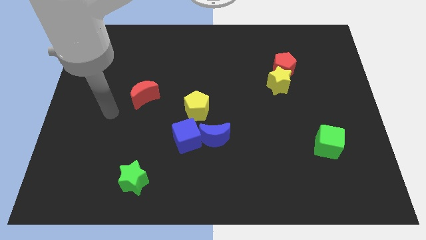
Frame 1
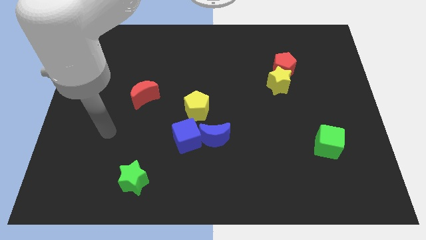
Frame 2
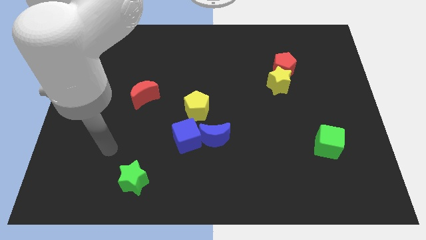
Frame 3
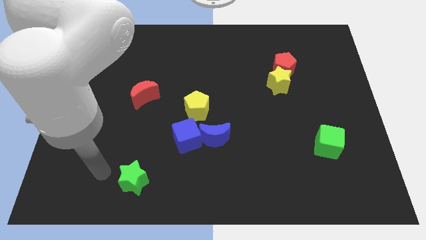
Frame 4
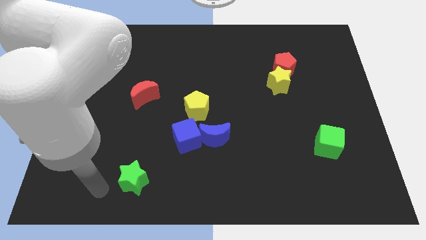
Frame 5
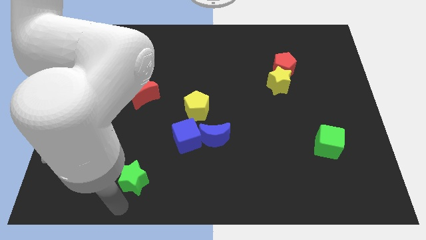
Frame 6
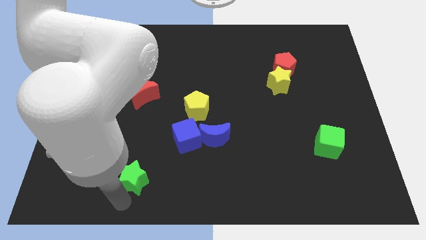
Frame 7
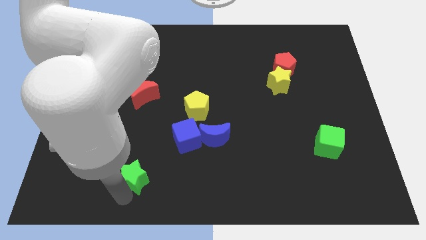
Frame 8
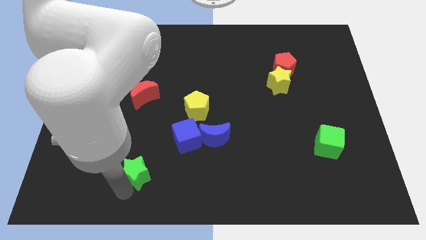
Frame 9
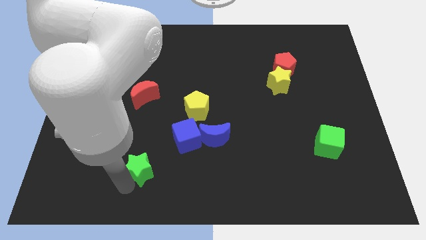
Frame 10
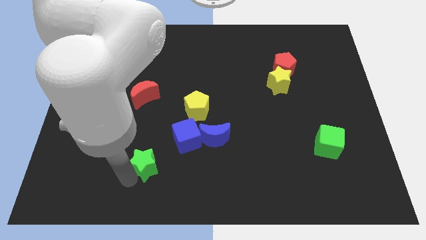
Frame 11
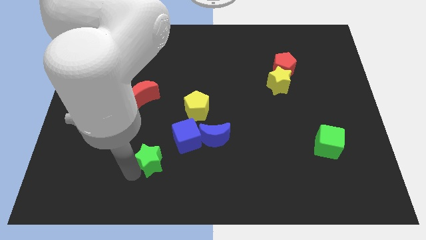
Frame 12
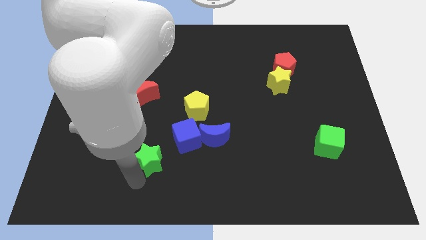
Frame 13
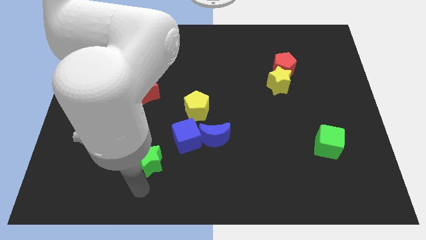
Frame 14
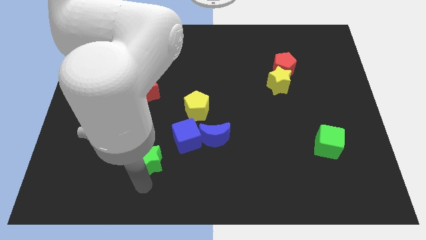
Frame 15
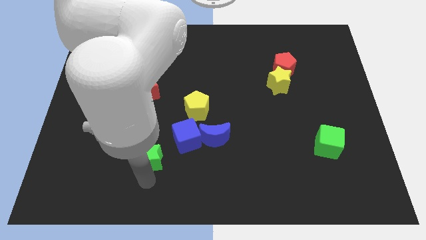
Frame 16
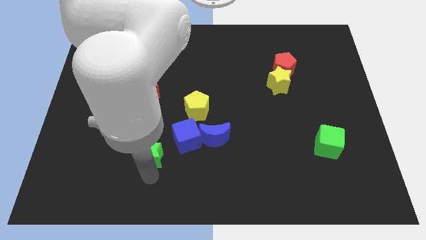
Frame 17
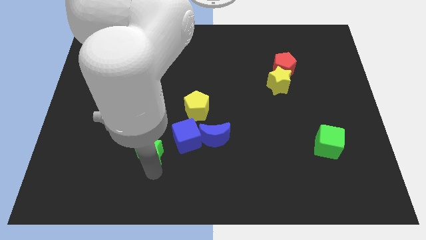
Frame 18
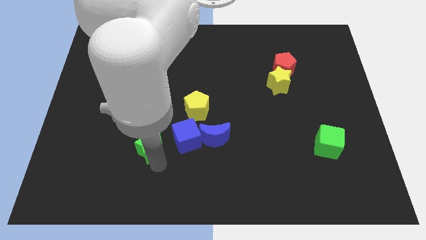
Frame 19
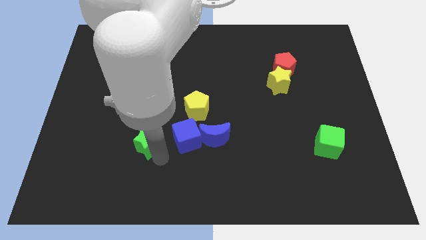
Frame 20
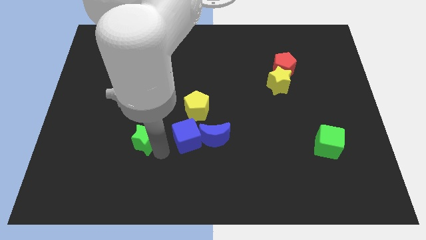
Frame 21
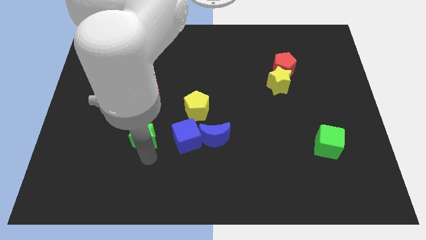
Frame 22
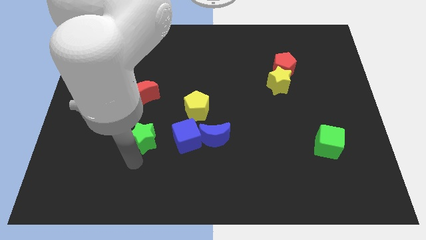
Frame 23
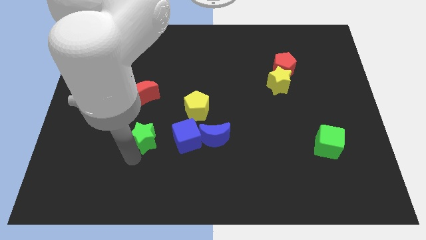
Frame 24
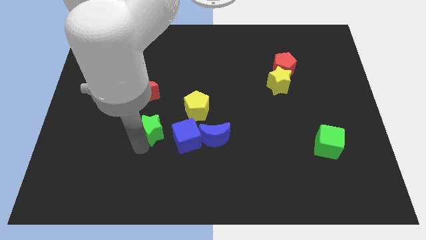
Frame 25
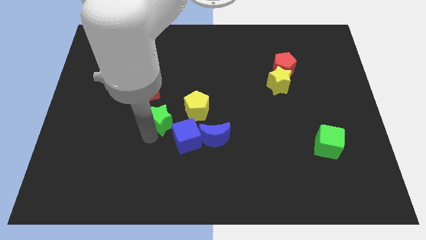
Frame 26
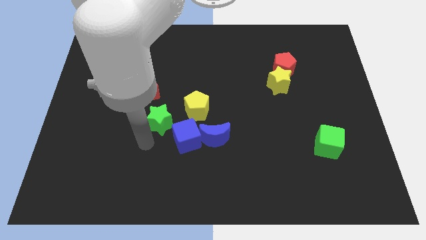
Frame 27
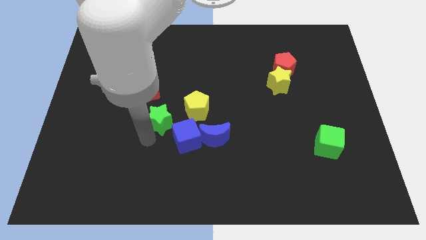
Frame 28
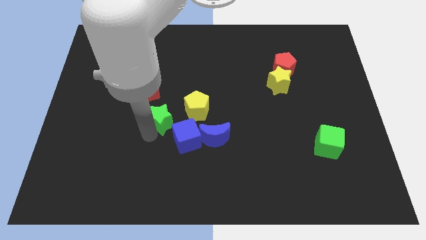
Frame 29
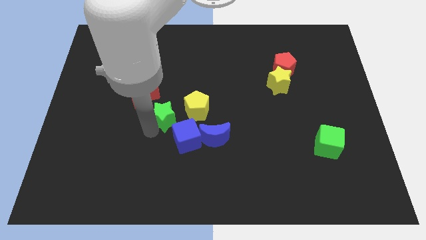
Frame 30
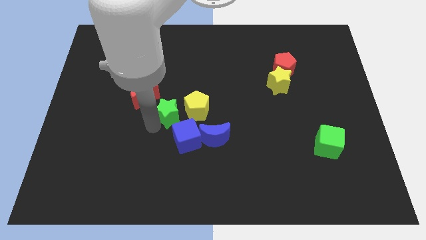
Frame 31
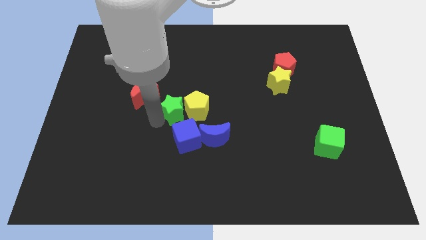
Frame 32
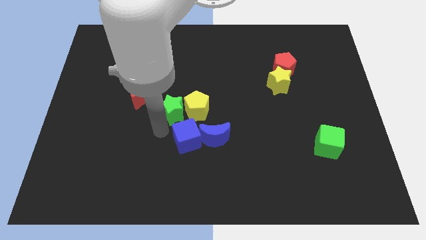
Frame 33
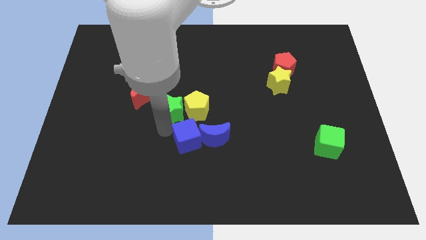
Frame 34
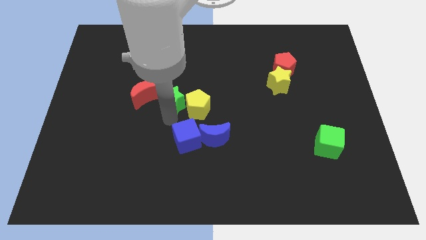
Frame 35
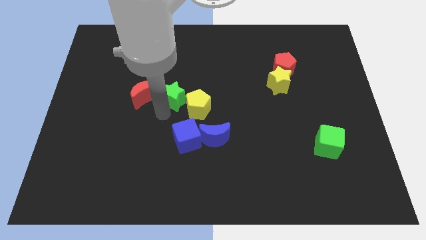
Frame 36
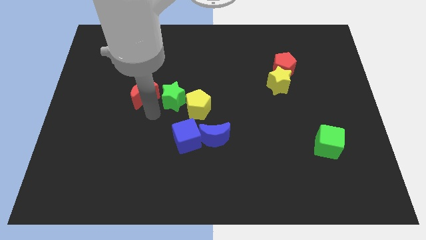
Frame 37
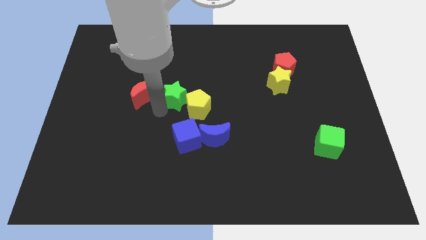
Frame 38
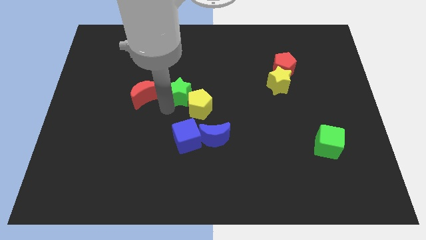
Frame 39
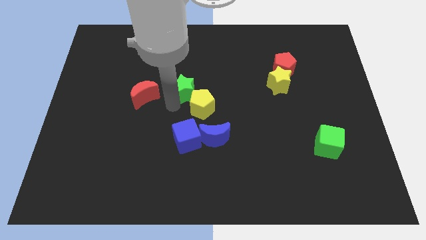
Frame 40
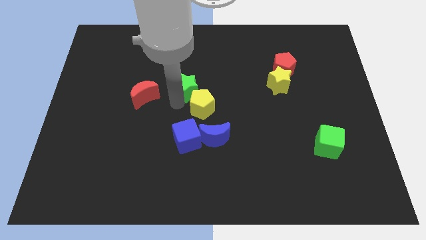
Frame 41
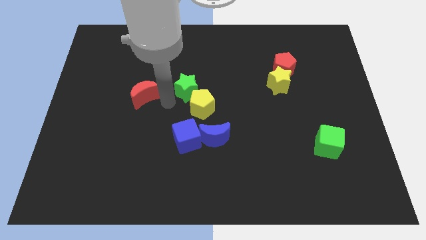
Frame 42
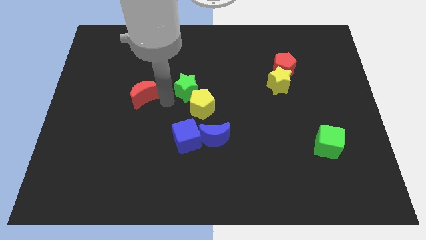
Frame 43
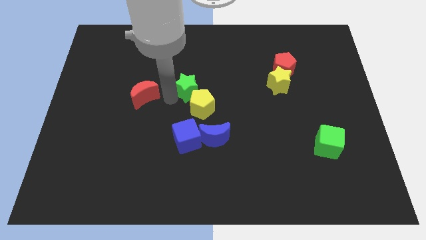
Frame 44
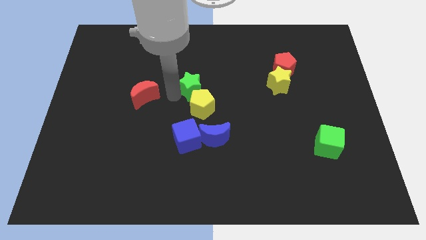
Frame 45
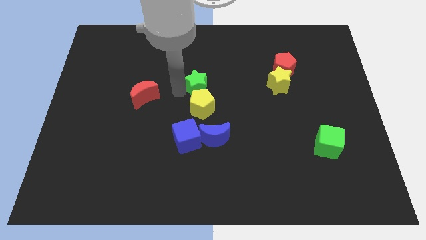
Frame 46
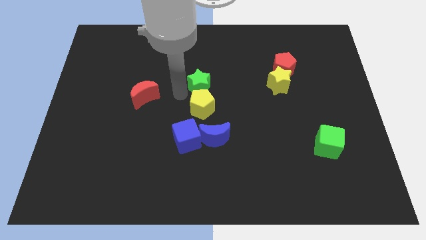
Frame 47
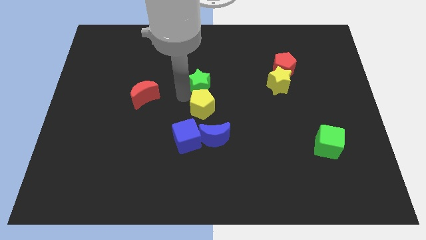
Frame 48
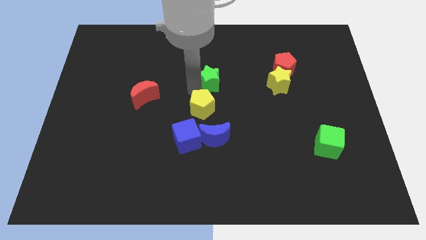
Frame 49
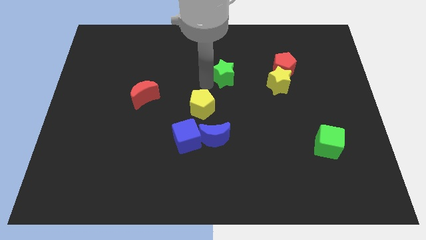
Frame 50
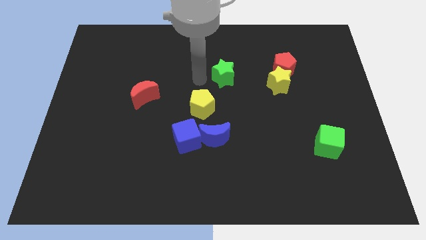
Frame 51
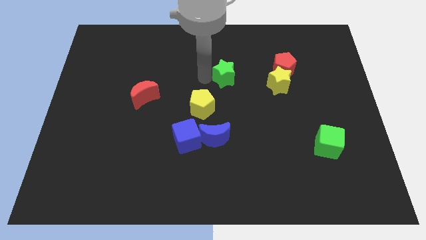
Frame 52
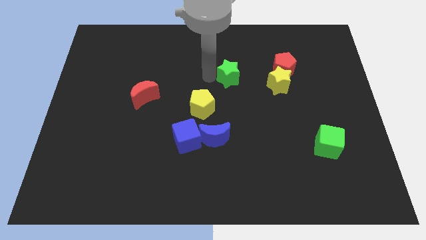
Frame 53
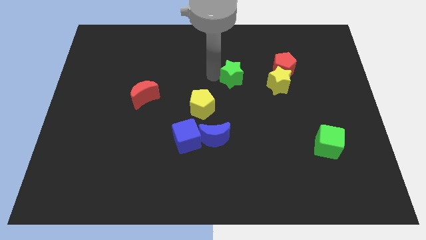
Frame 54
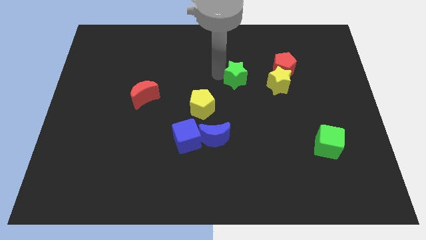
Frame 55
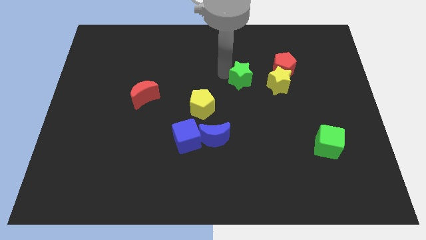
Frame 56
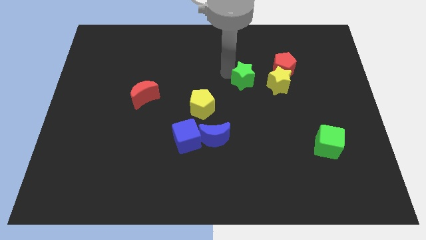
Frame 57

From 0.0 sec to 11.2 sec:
move the green star diagonally up and to the left of the yellow star

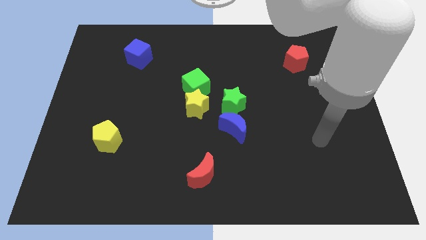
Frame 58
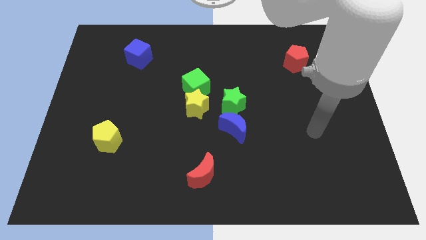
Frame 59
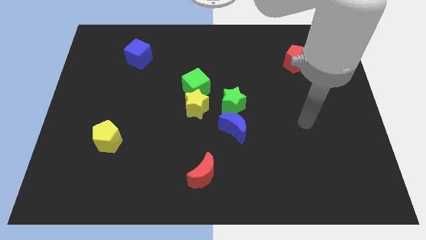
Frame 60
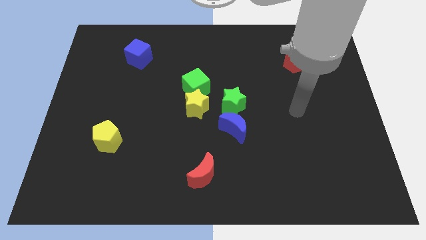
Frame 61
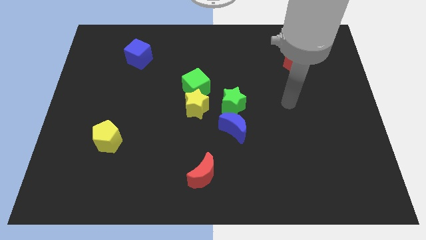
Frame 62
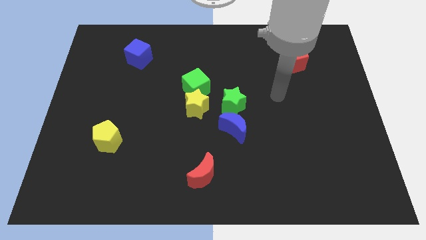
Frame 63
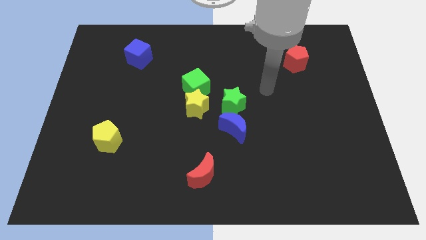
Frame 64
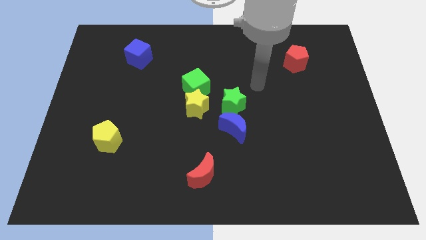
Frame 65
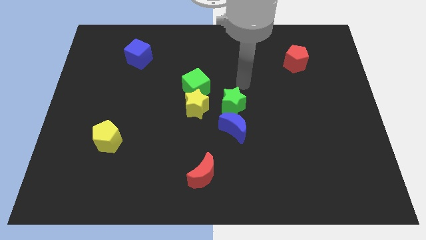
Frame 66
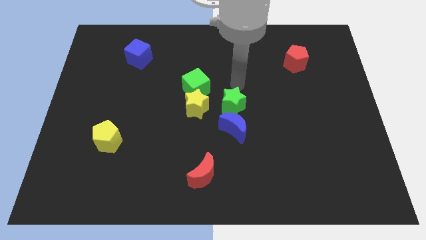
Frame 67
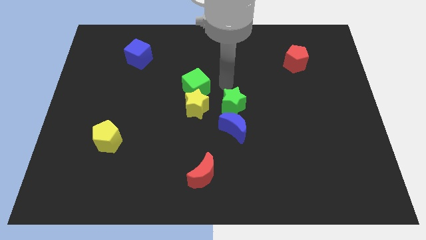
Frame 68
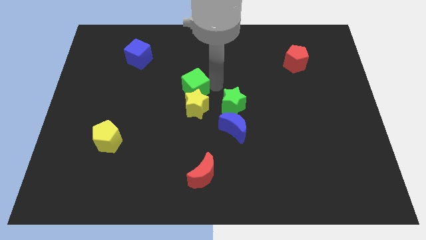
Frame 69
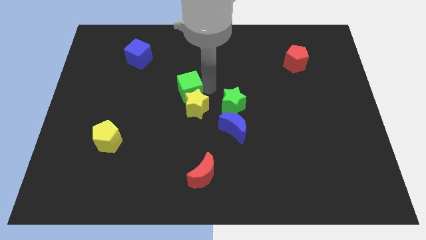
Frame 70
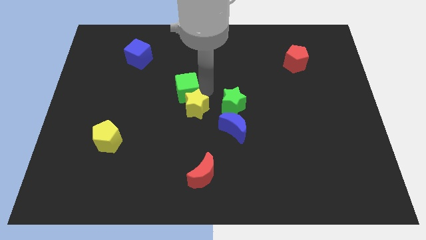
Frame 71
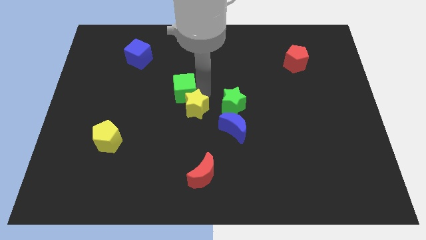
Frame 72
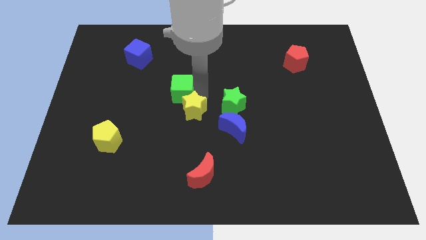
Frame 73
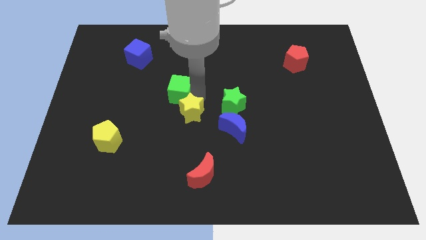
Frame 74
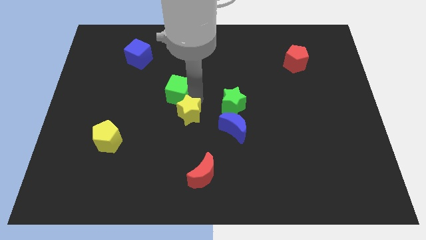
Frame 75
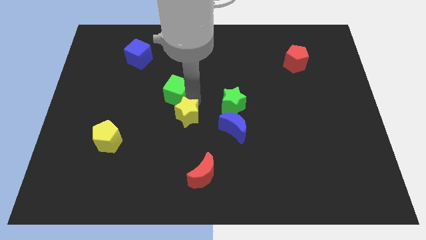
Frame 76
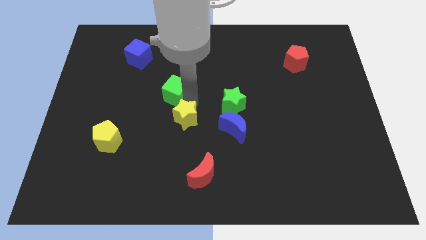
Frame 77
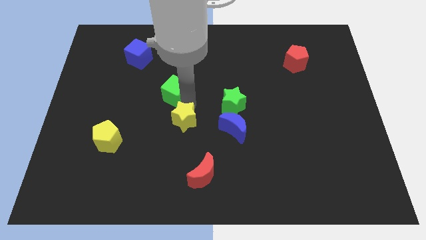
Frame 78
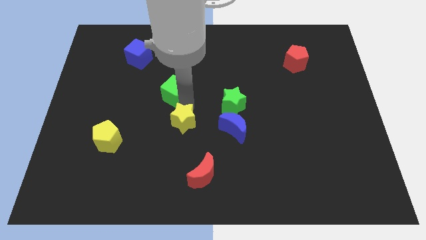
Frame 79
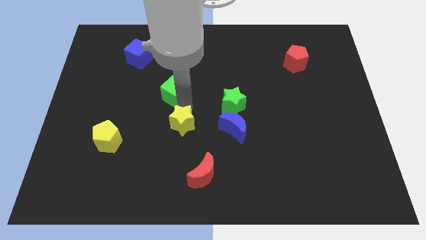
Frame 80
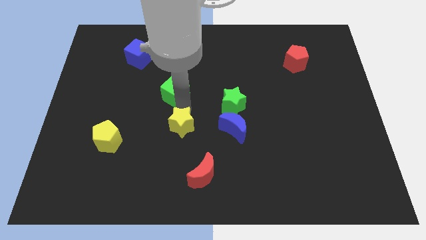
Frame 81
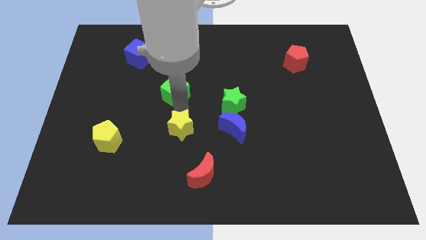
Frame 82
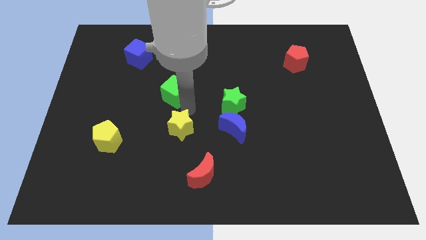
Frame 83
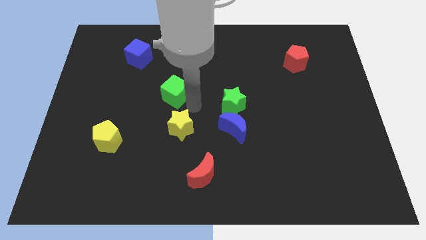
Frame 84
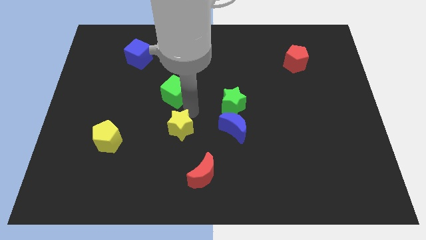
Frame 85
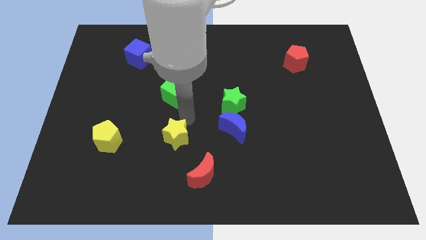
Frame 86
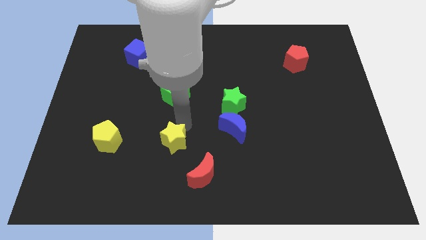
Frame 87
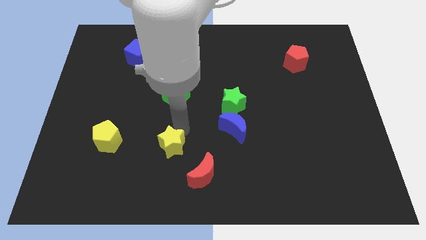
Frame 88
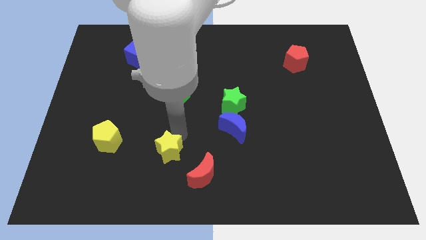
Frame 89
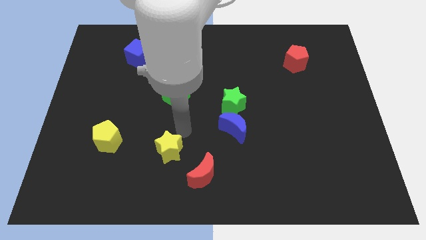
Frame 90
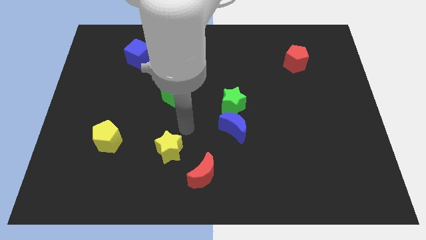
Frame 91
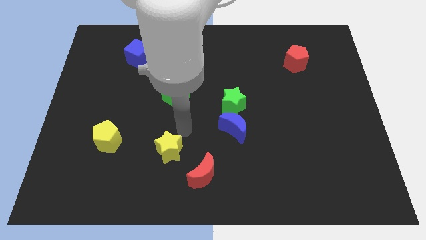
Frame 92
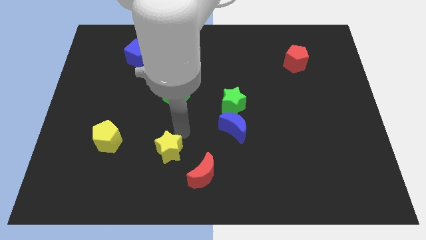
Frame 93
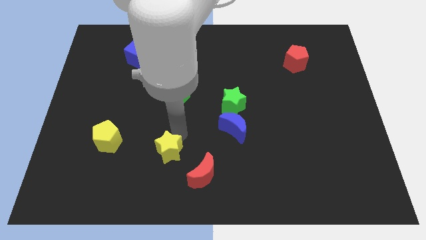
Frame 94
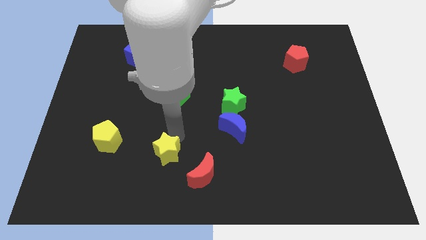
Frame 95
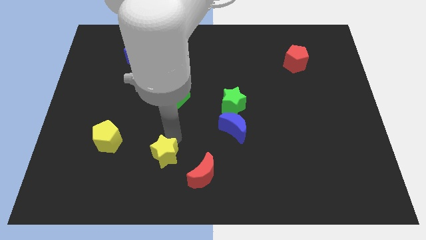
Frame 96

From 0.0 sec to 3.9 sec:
slide the yellow star to the left side of the red moon
